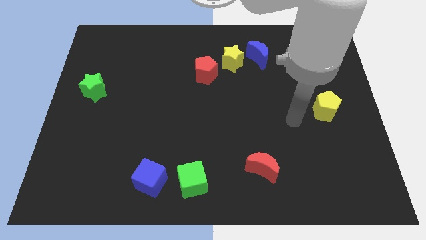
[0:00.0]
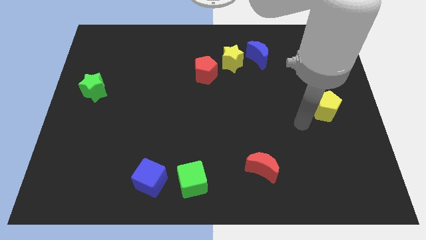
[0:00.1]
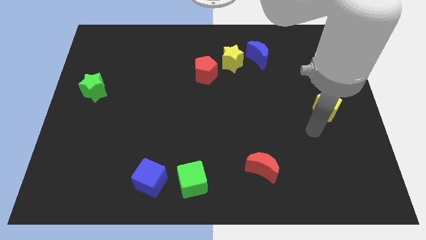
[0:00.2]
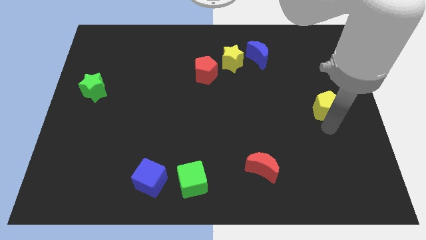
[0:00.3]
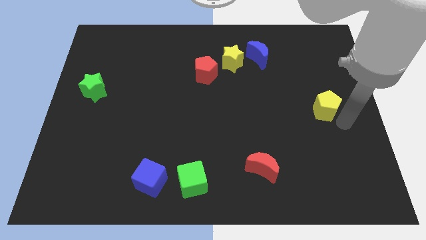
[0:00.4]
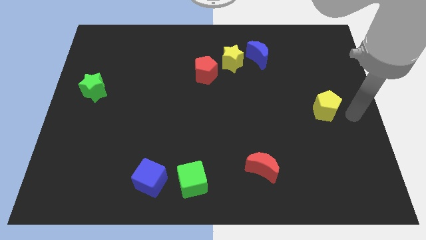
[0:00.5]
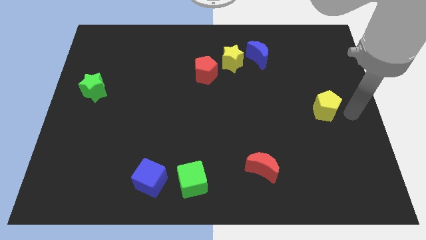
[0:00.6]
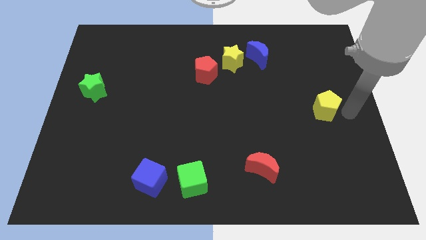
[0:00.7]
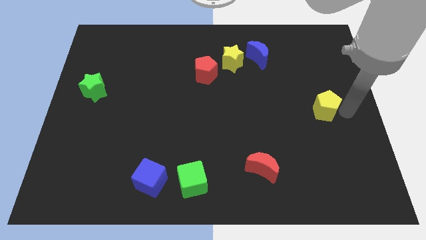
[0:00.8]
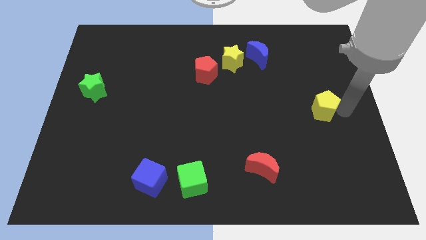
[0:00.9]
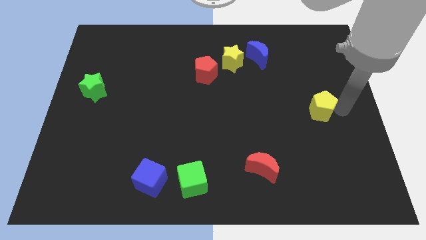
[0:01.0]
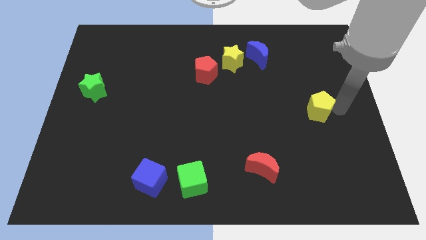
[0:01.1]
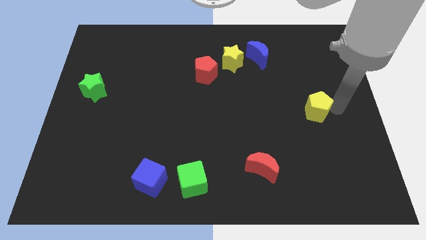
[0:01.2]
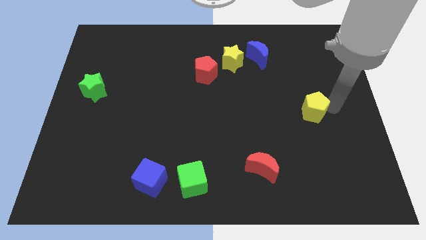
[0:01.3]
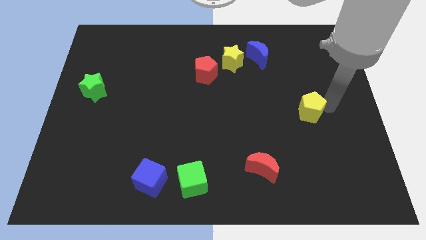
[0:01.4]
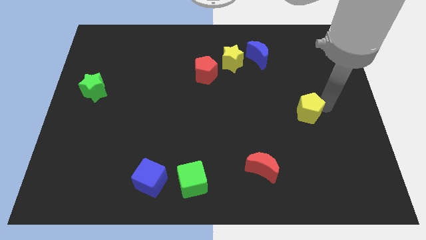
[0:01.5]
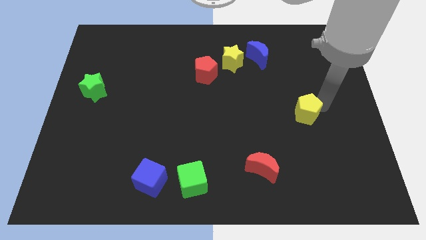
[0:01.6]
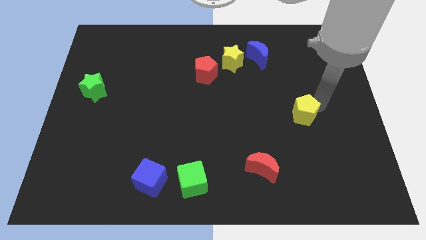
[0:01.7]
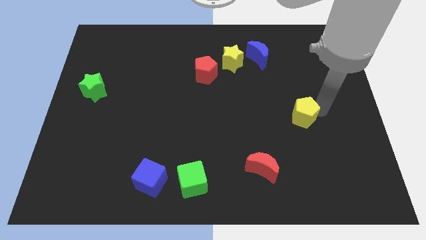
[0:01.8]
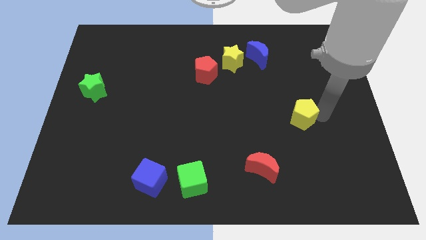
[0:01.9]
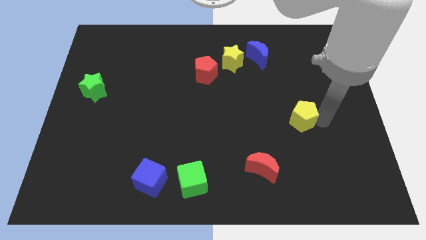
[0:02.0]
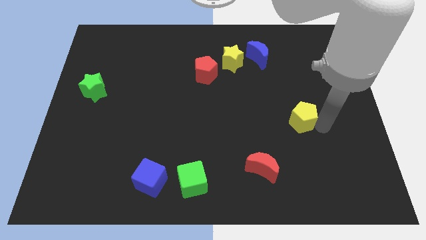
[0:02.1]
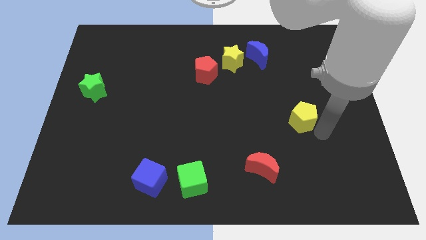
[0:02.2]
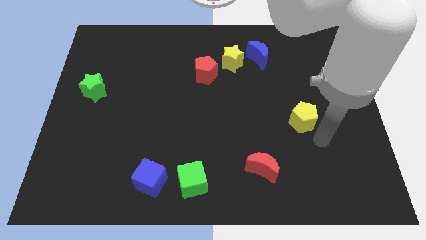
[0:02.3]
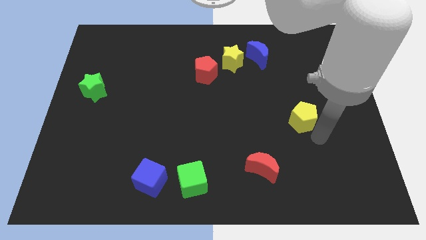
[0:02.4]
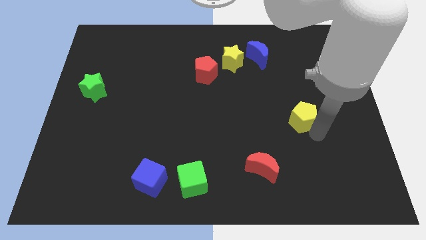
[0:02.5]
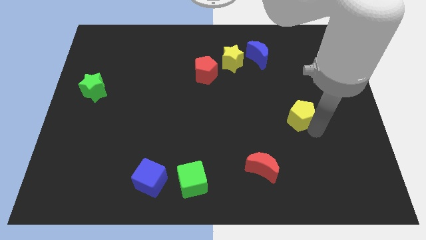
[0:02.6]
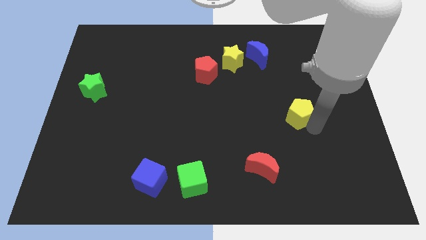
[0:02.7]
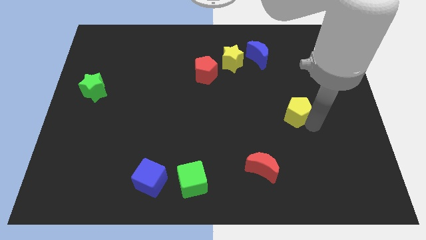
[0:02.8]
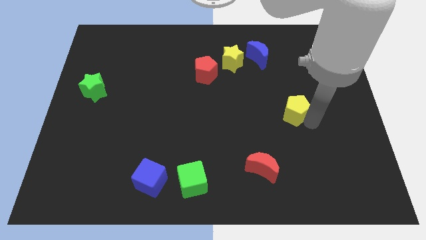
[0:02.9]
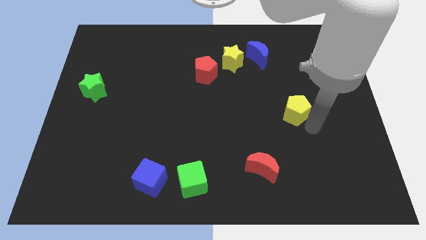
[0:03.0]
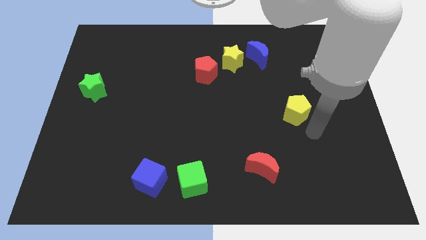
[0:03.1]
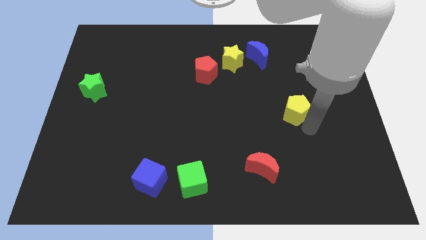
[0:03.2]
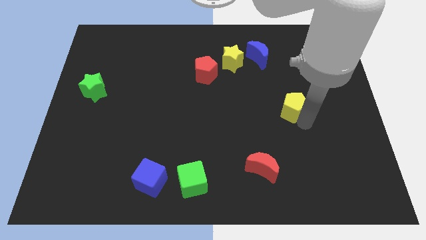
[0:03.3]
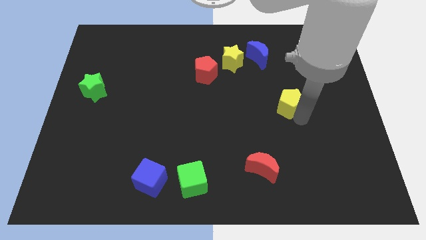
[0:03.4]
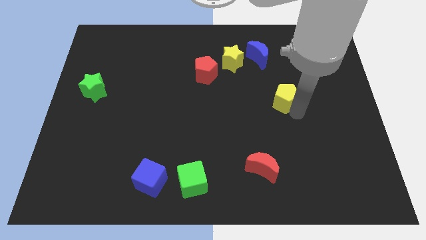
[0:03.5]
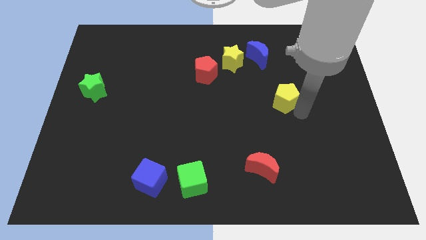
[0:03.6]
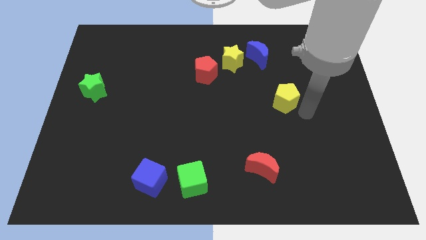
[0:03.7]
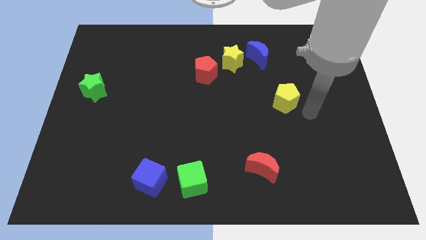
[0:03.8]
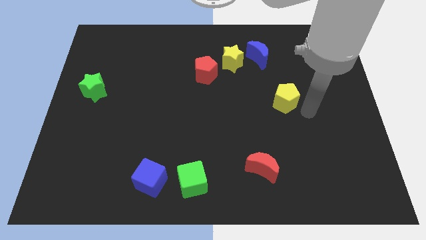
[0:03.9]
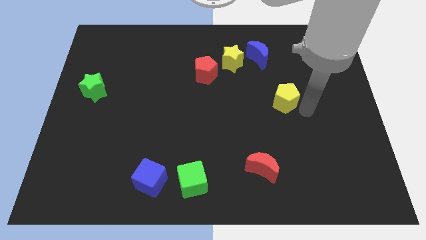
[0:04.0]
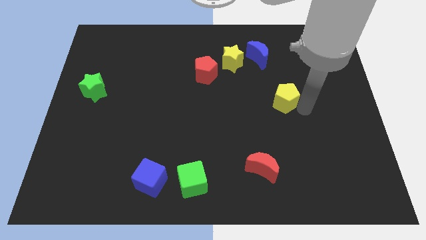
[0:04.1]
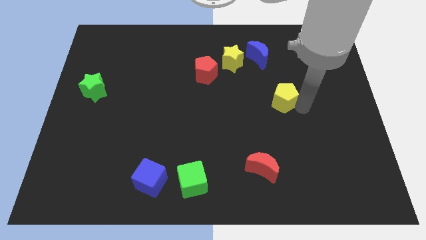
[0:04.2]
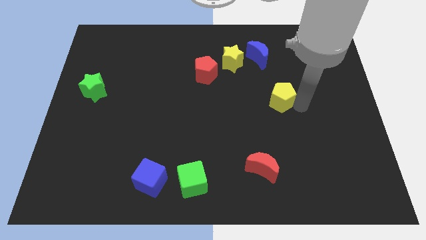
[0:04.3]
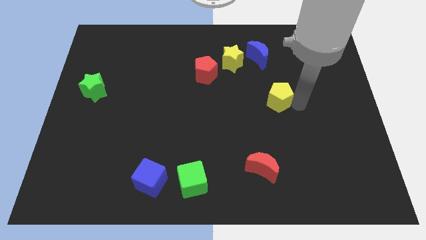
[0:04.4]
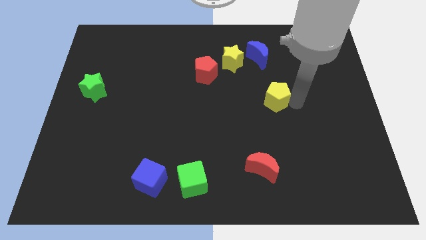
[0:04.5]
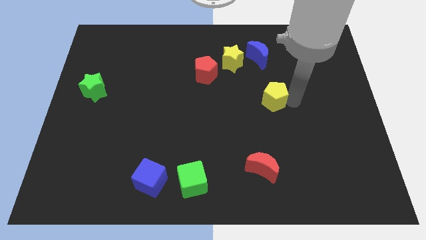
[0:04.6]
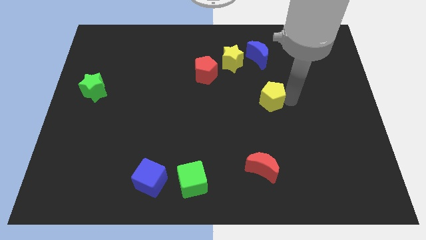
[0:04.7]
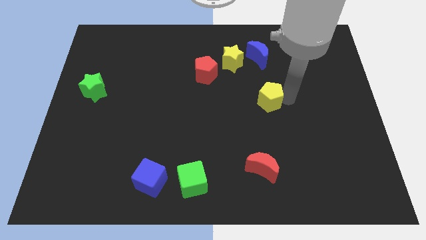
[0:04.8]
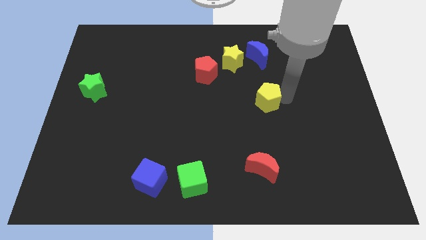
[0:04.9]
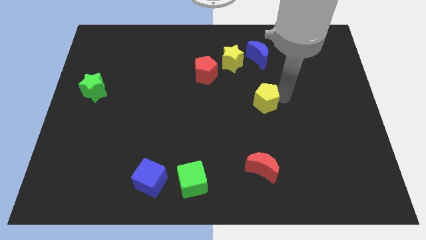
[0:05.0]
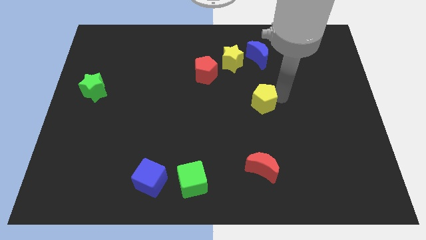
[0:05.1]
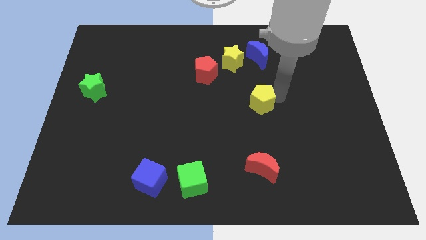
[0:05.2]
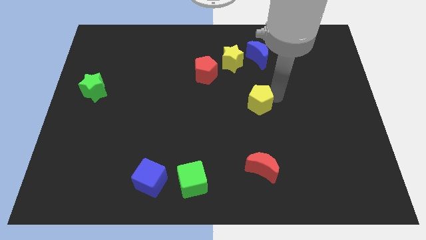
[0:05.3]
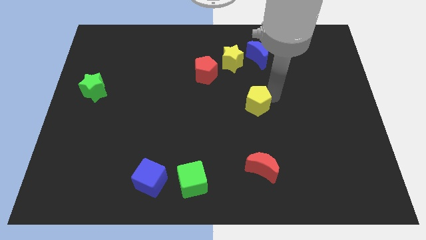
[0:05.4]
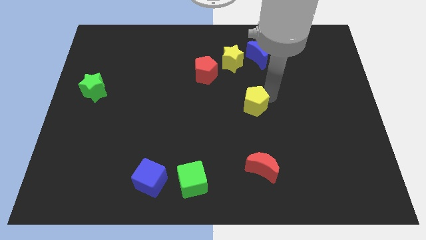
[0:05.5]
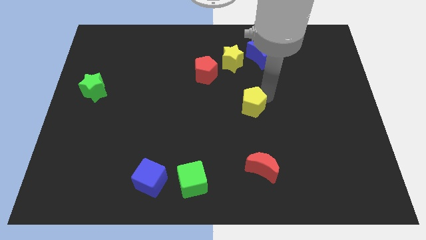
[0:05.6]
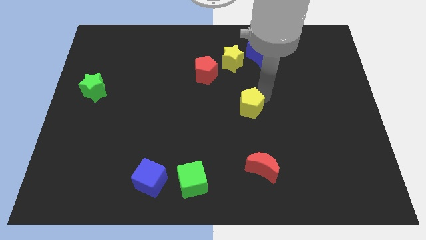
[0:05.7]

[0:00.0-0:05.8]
move the yellow pentagon below the yellow star

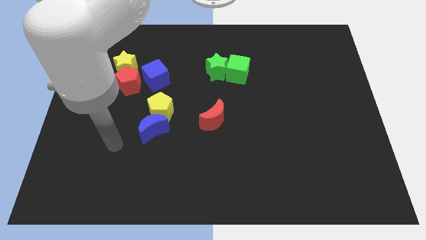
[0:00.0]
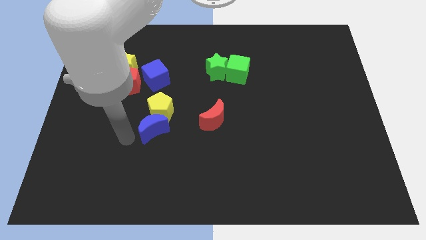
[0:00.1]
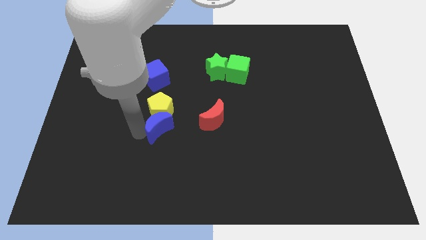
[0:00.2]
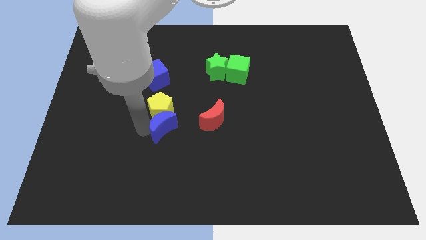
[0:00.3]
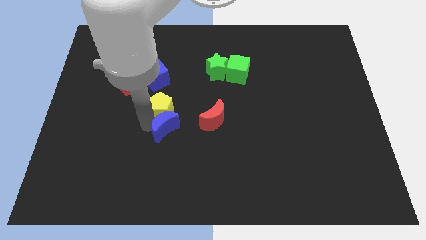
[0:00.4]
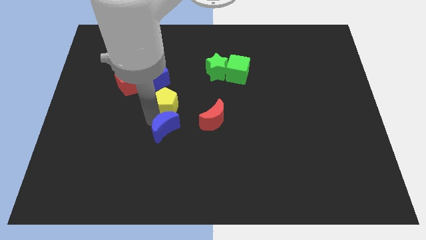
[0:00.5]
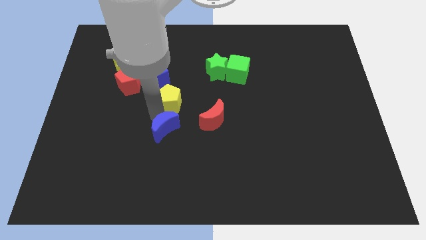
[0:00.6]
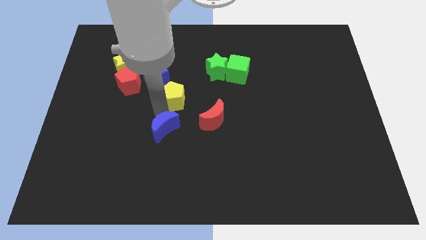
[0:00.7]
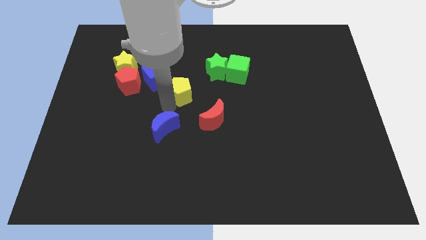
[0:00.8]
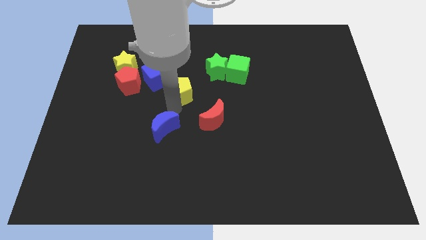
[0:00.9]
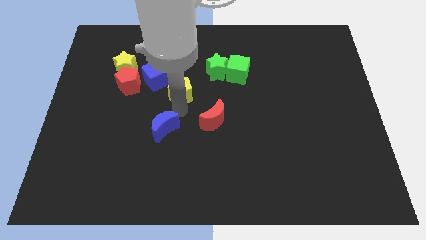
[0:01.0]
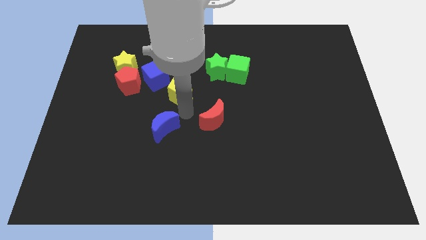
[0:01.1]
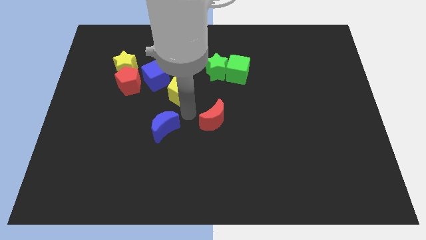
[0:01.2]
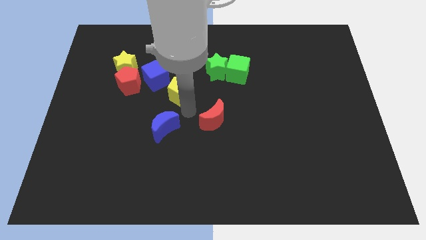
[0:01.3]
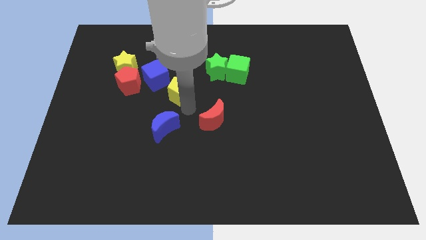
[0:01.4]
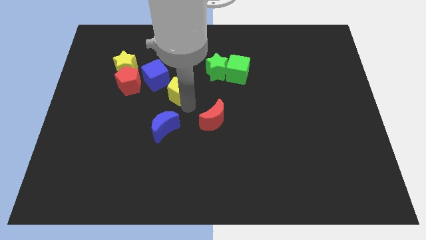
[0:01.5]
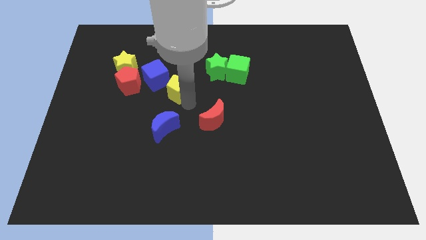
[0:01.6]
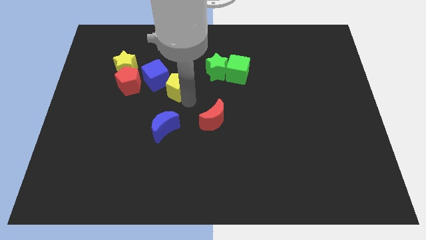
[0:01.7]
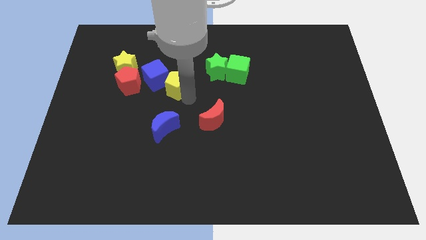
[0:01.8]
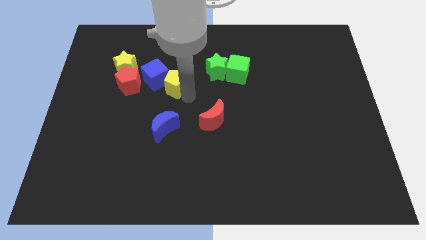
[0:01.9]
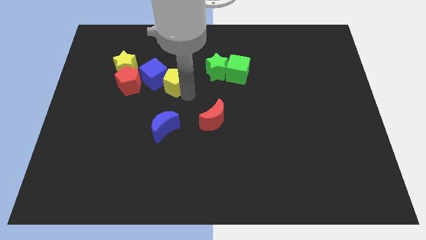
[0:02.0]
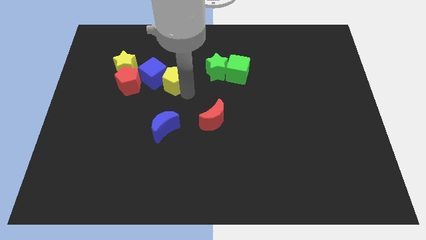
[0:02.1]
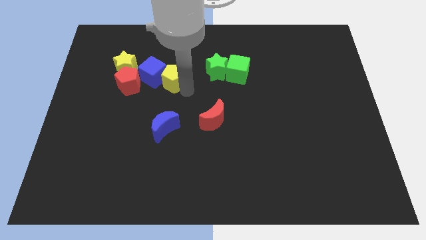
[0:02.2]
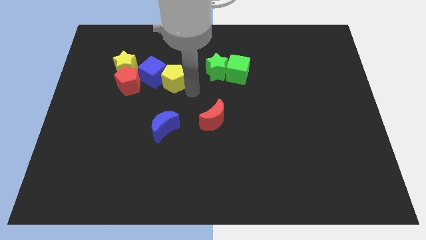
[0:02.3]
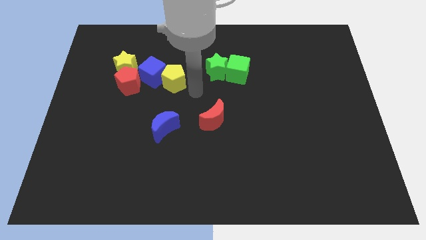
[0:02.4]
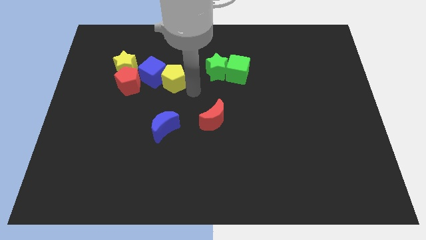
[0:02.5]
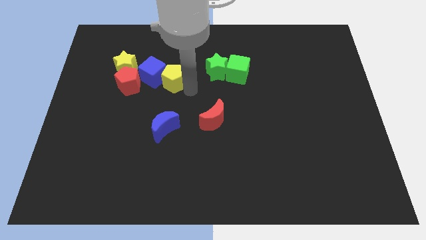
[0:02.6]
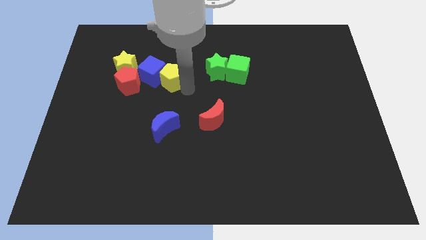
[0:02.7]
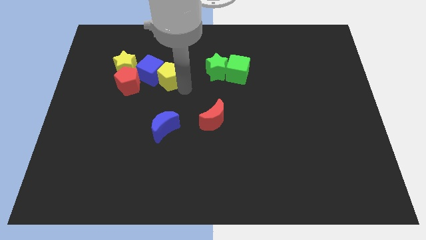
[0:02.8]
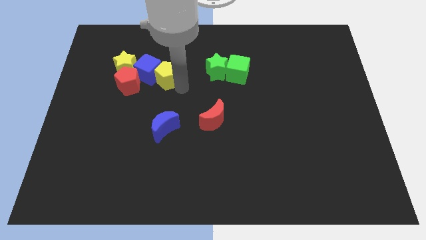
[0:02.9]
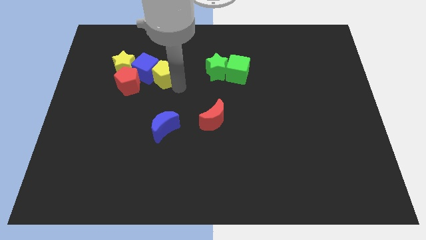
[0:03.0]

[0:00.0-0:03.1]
move the yellow pentagon diagonally up and to the right of the red pentagon
